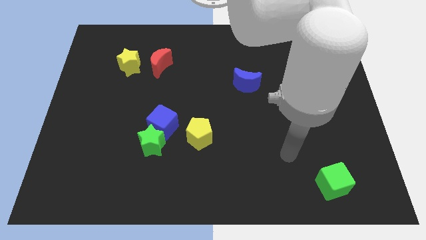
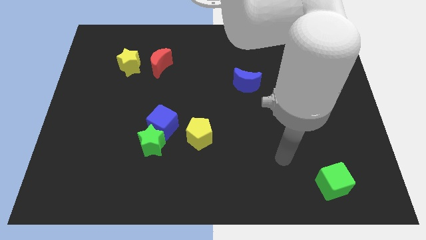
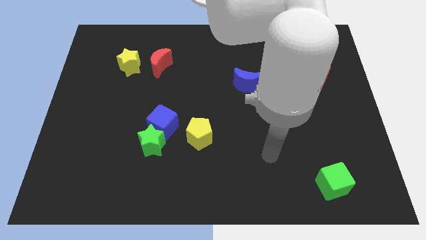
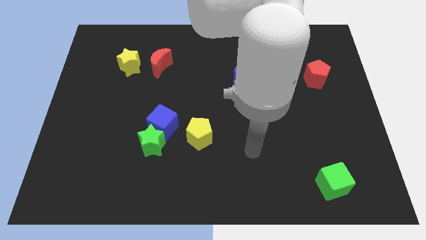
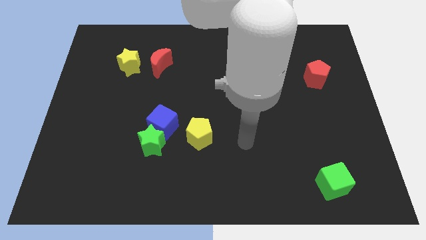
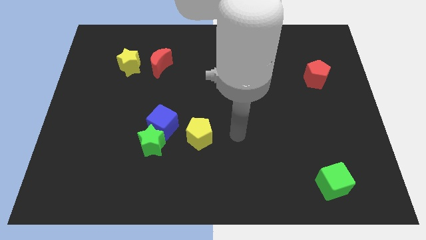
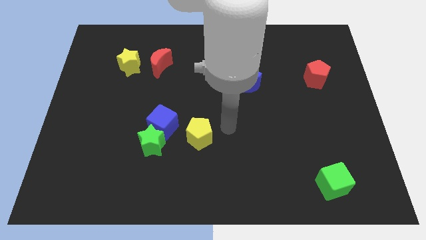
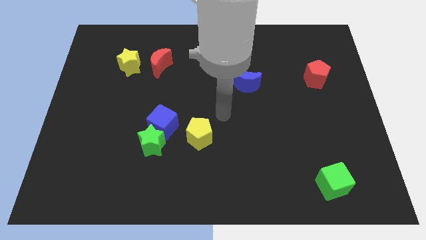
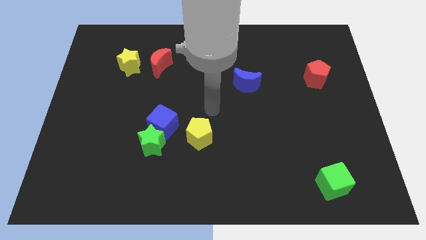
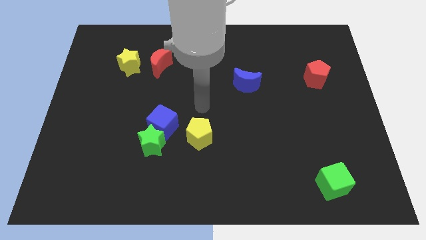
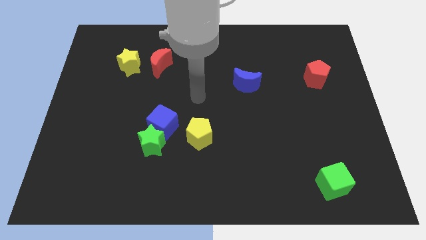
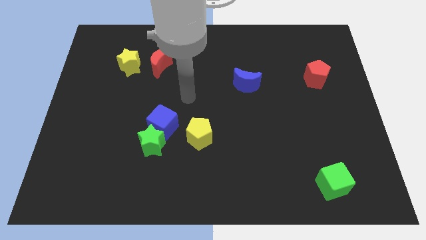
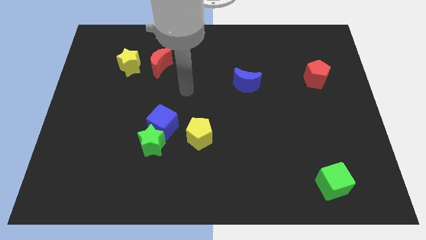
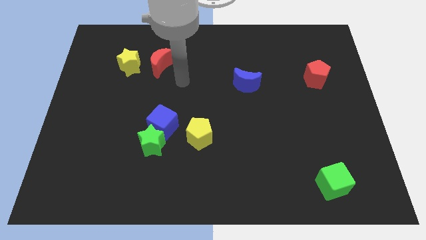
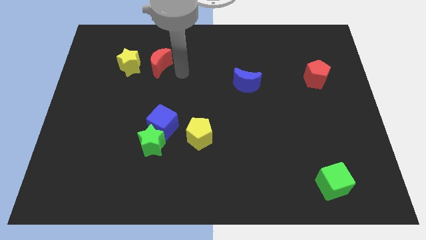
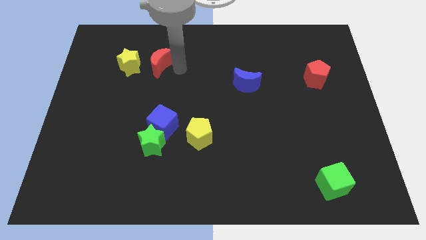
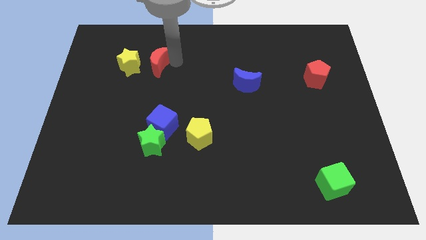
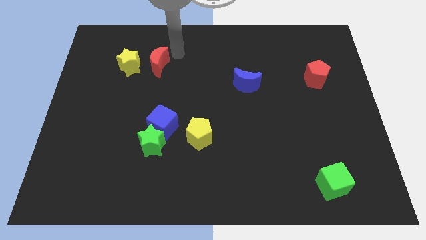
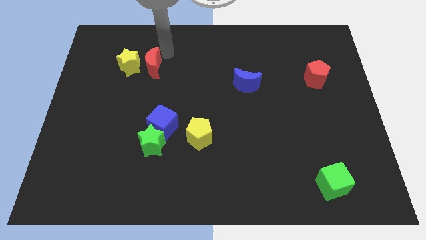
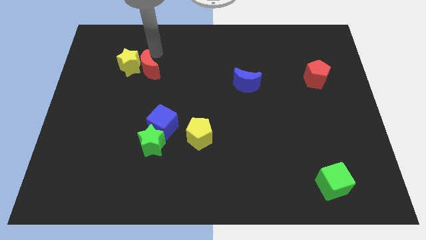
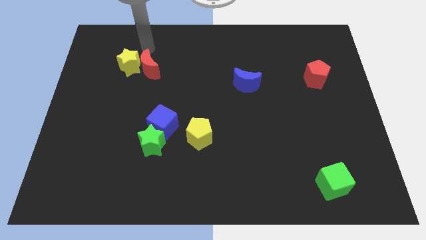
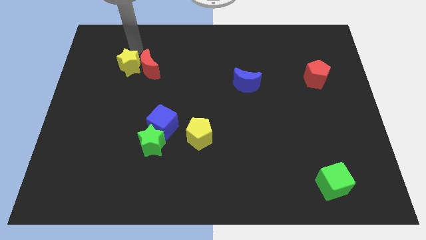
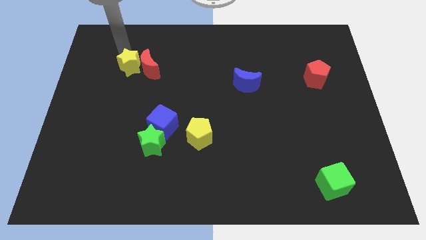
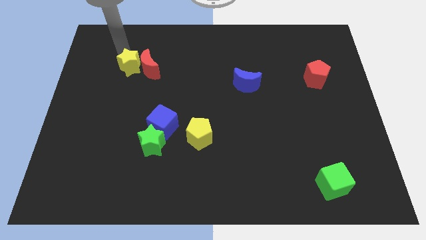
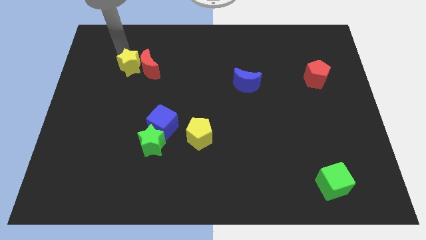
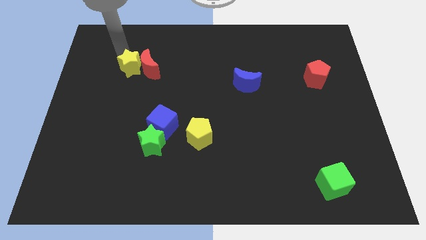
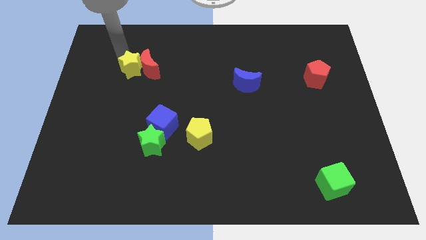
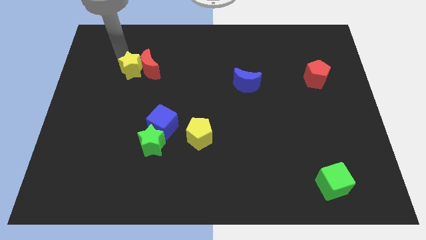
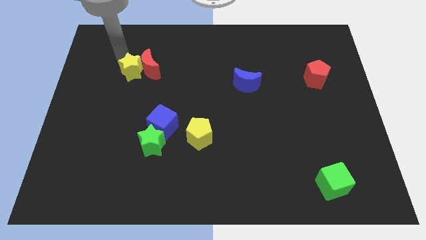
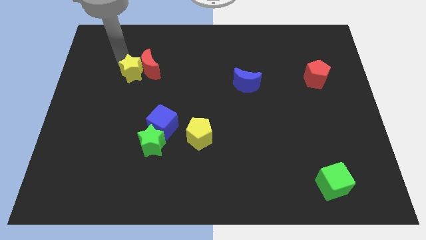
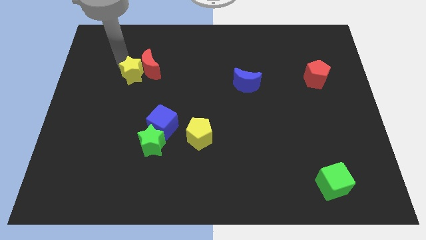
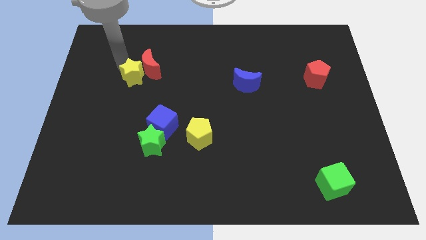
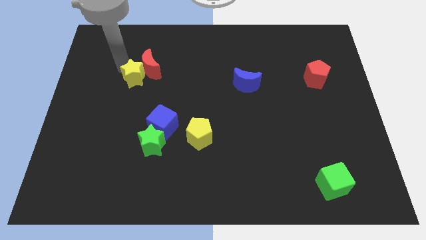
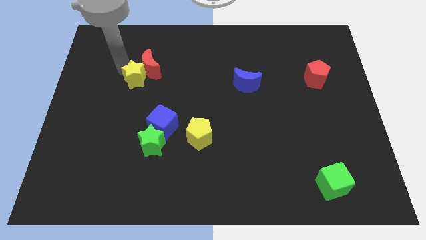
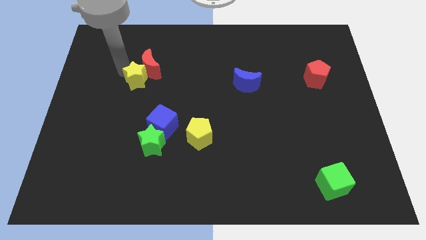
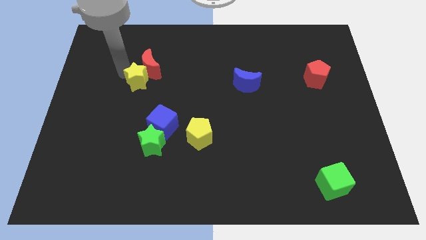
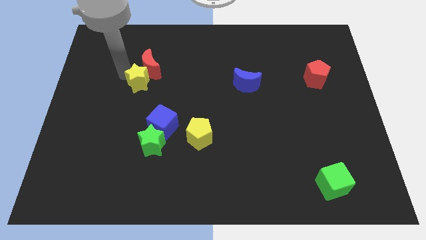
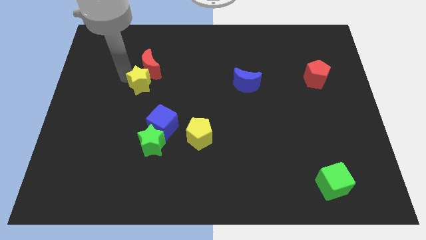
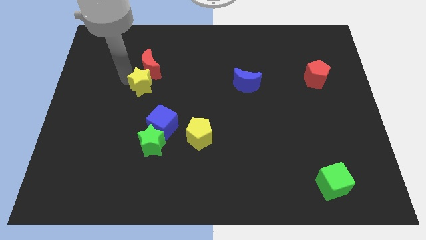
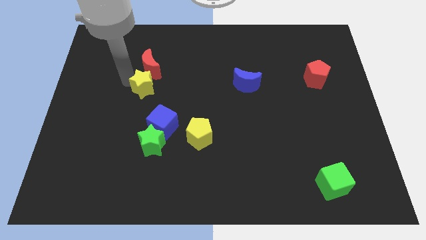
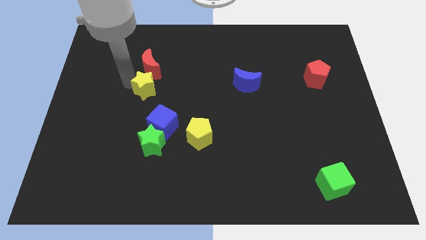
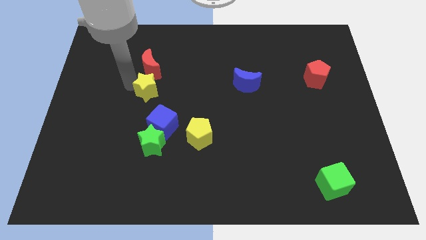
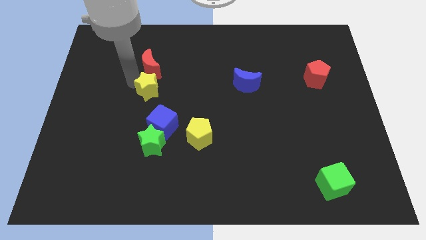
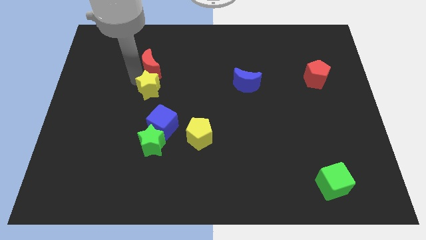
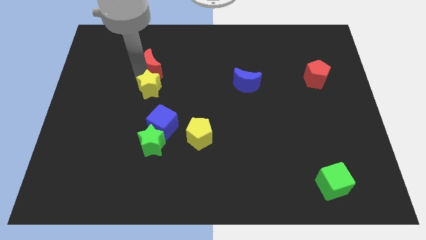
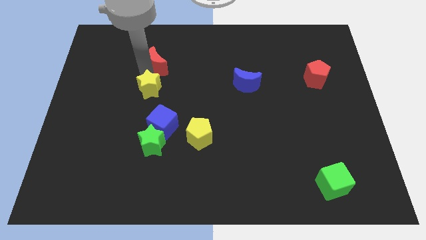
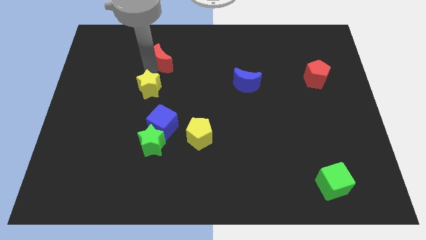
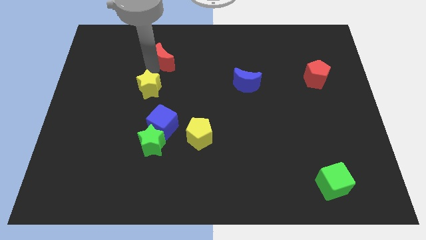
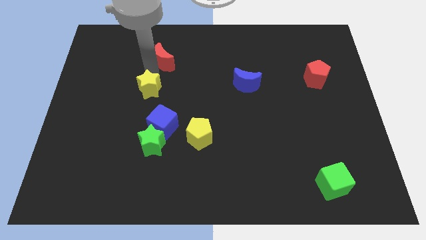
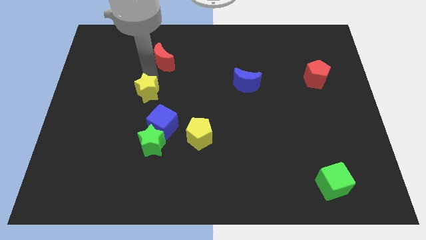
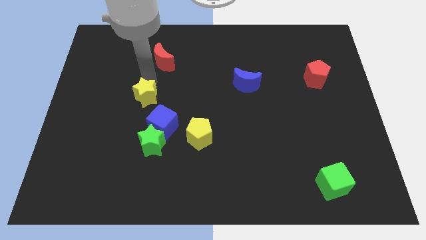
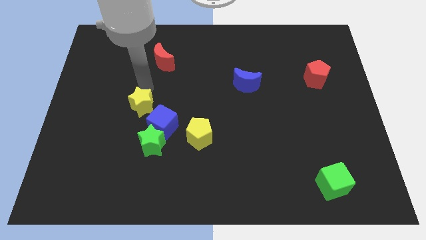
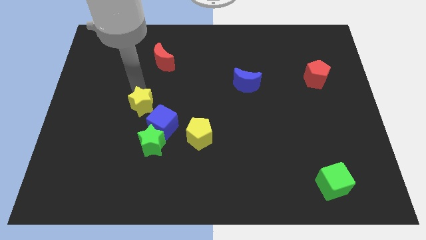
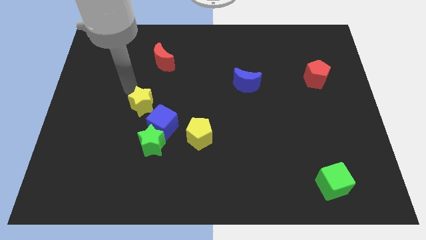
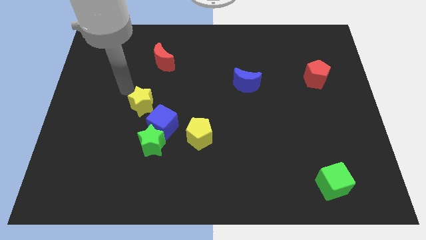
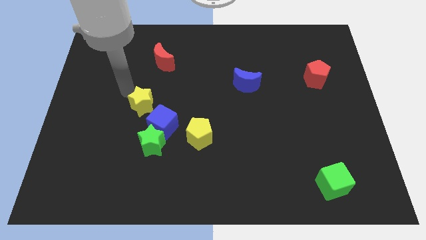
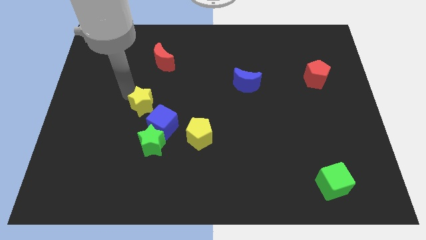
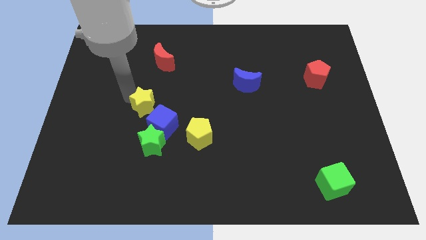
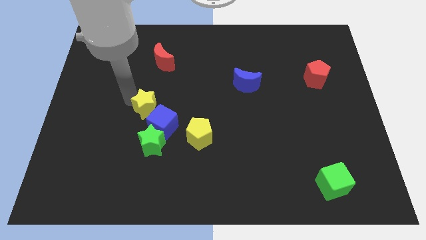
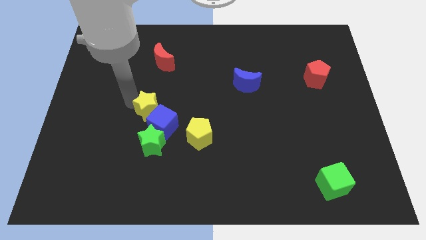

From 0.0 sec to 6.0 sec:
push the yellow star towards the blue cube

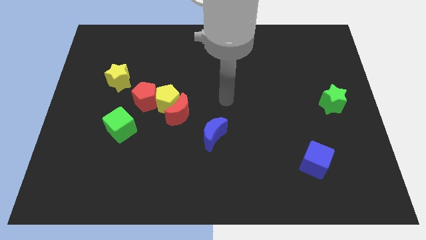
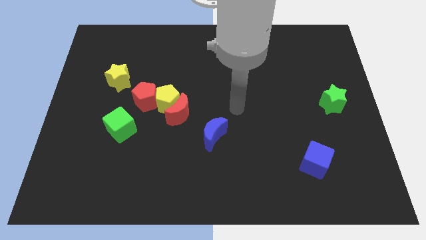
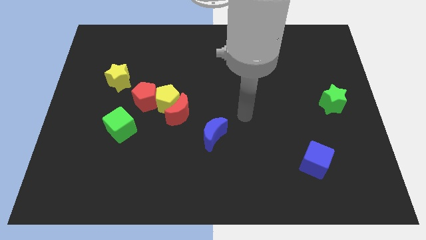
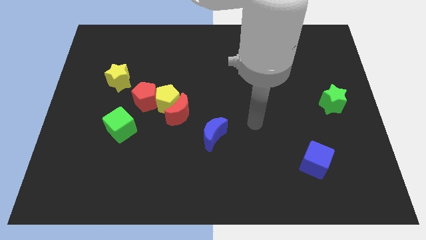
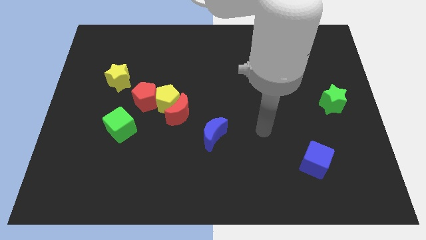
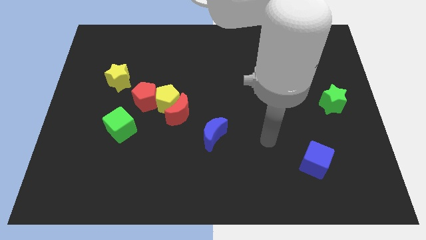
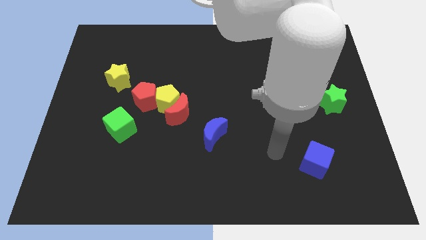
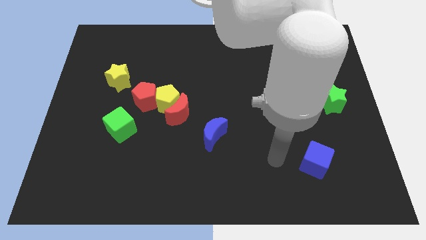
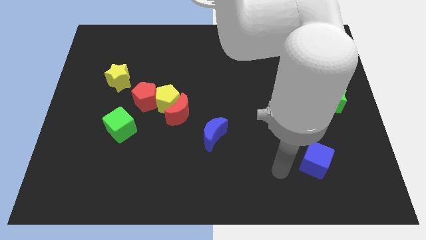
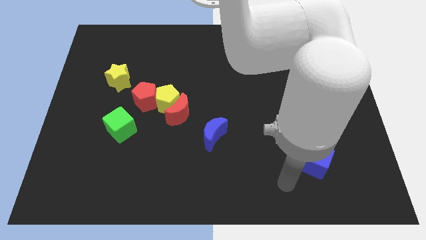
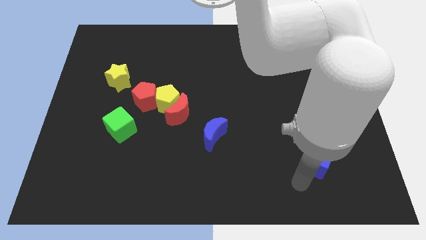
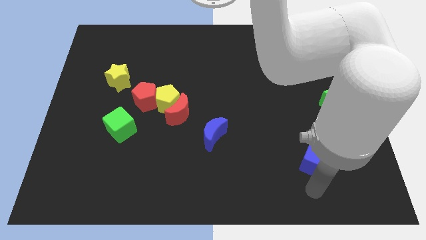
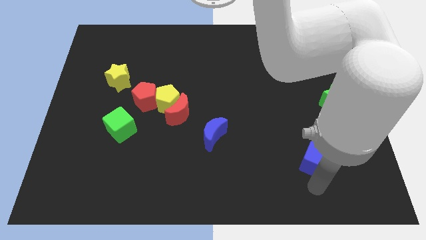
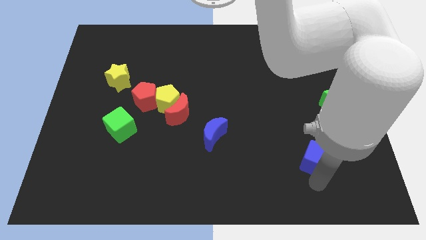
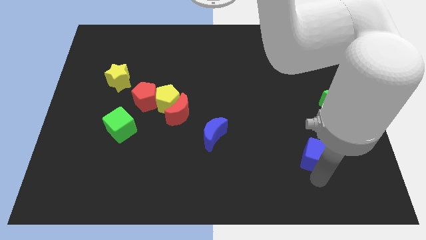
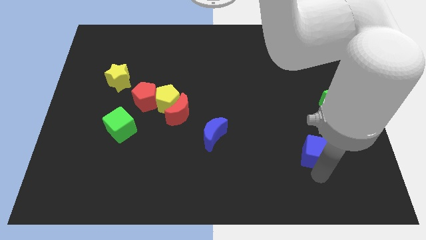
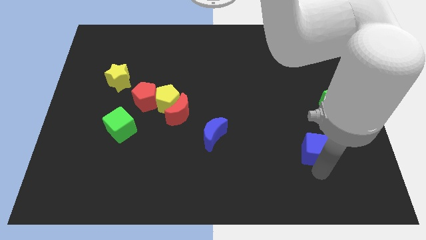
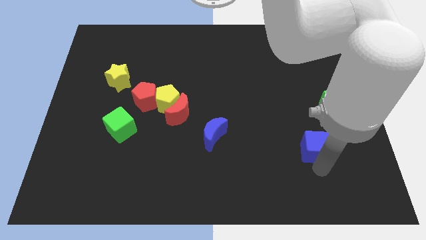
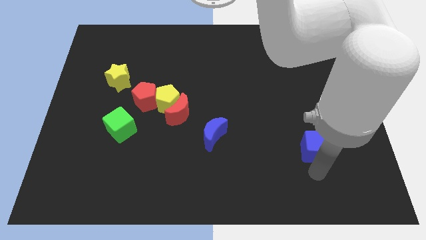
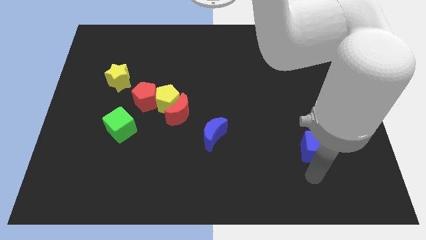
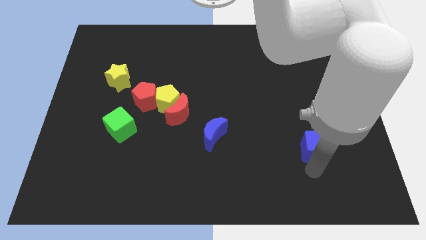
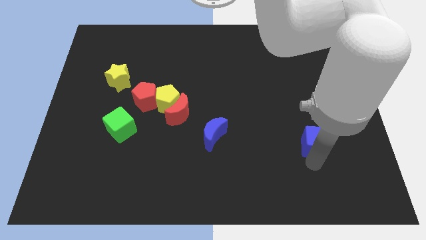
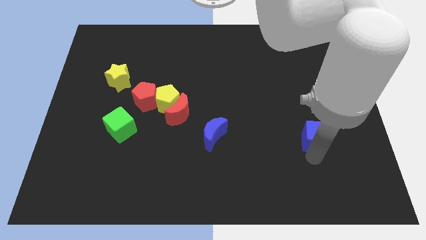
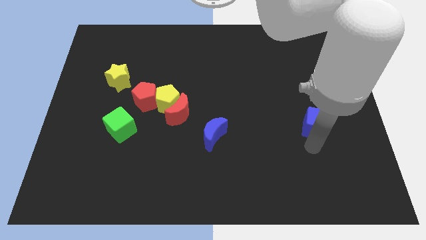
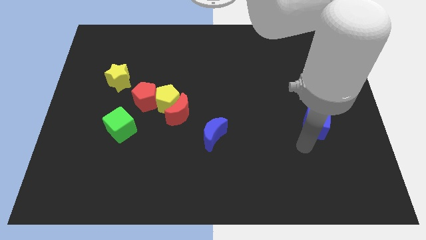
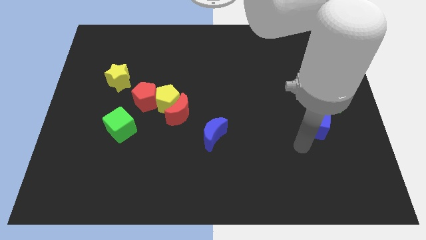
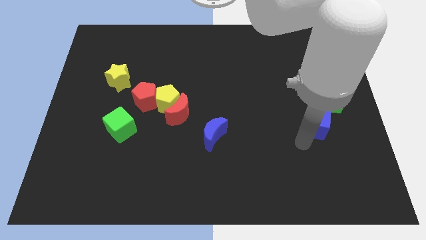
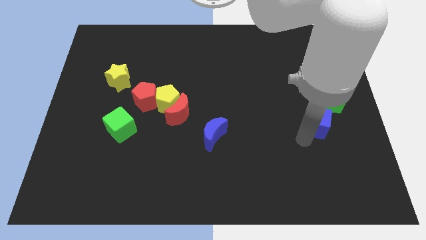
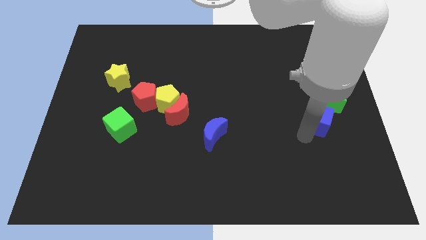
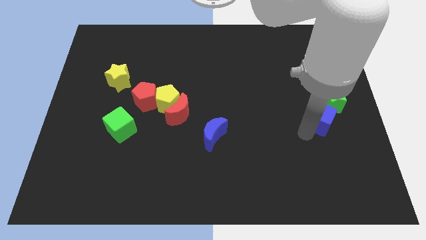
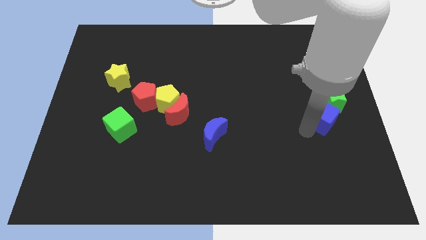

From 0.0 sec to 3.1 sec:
push the blue cube towards the green star
